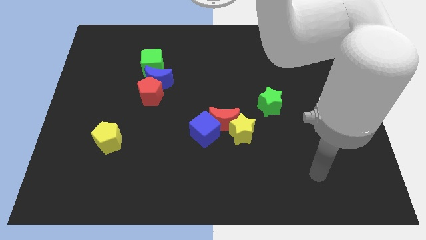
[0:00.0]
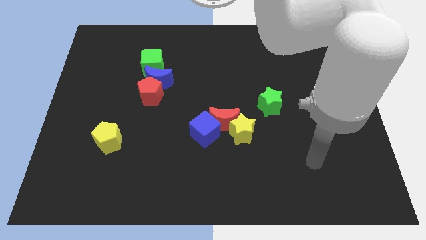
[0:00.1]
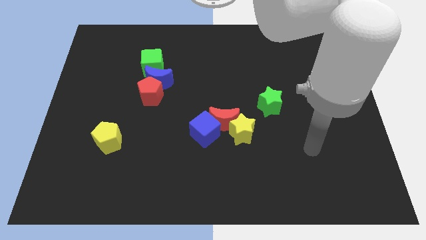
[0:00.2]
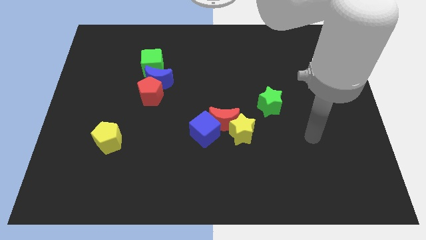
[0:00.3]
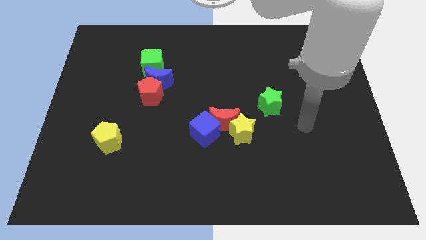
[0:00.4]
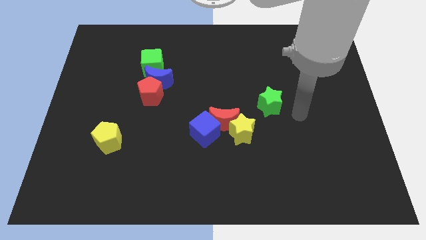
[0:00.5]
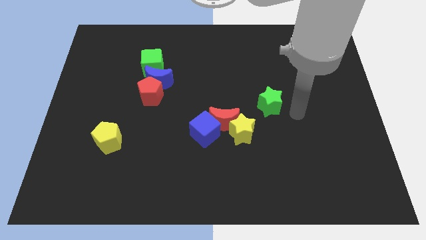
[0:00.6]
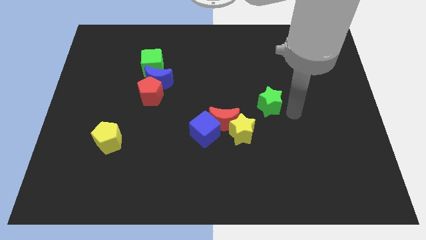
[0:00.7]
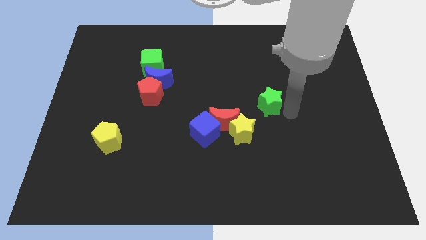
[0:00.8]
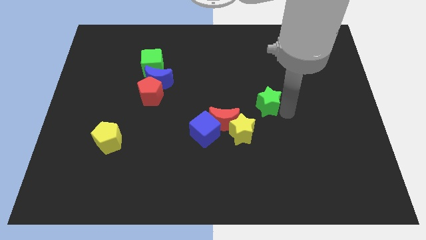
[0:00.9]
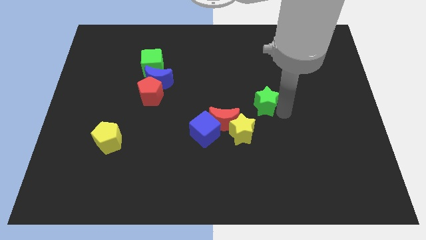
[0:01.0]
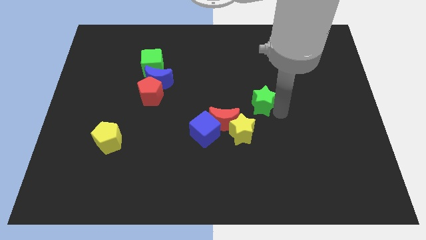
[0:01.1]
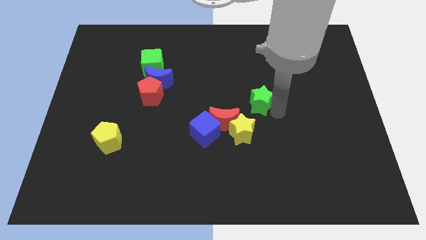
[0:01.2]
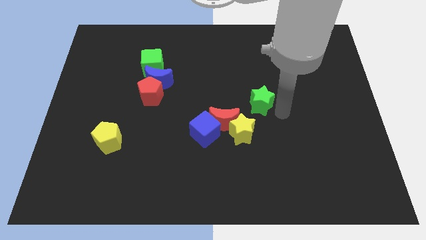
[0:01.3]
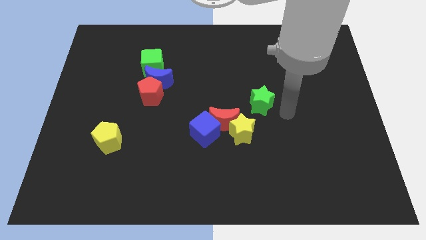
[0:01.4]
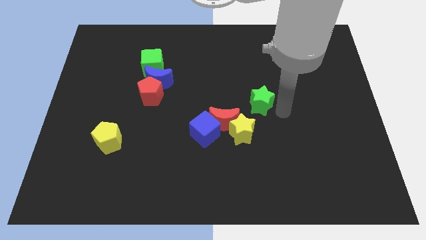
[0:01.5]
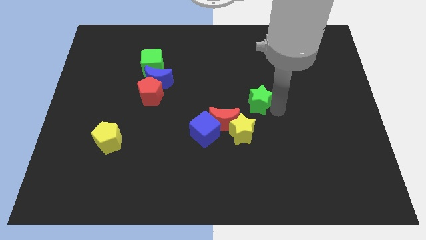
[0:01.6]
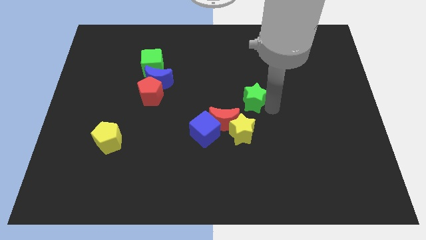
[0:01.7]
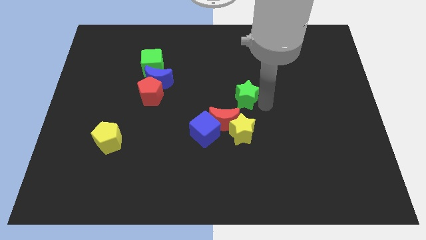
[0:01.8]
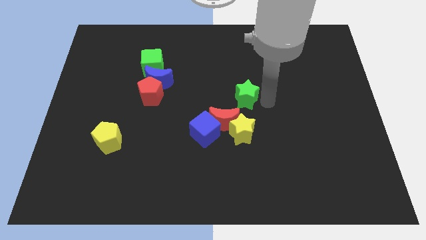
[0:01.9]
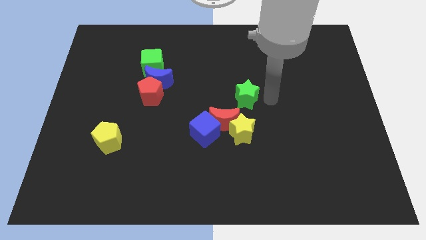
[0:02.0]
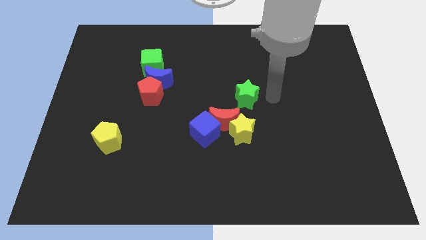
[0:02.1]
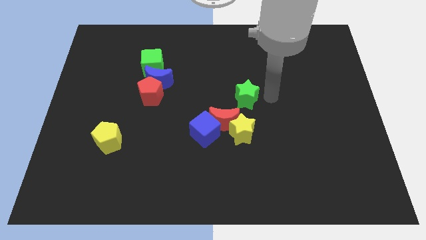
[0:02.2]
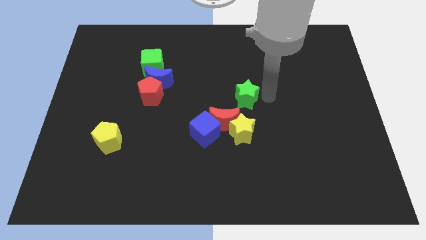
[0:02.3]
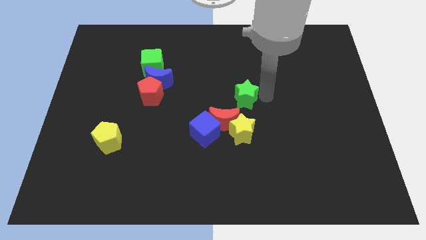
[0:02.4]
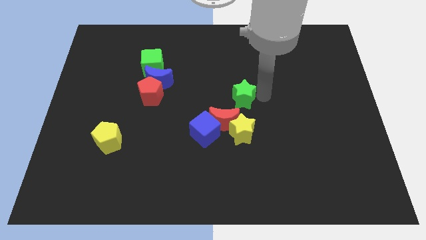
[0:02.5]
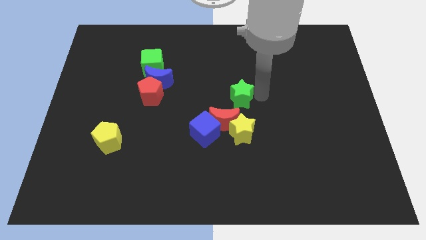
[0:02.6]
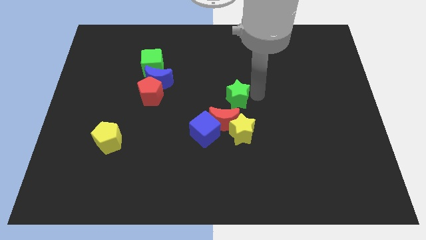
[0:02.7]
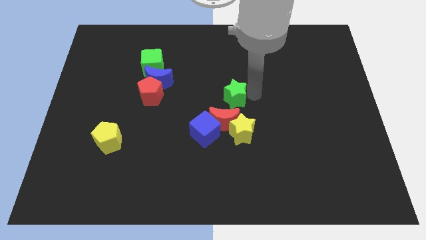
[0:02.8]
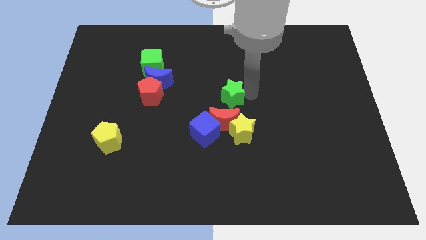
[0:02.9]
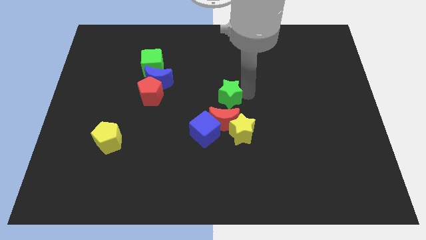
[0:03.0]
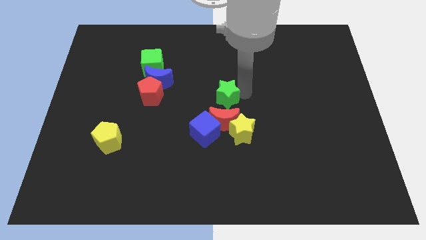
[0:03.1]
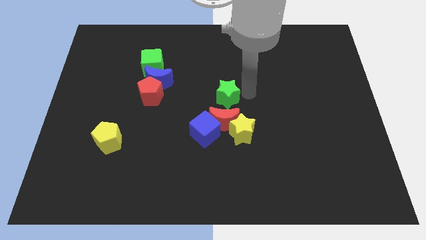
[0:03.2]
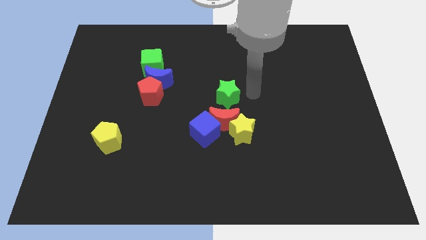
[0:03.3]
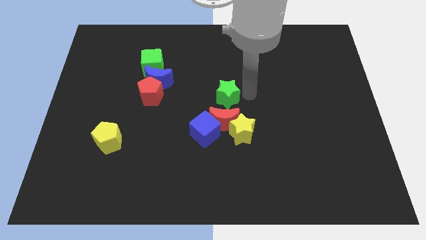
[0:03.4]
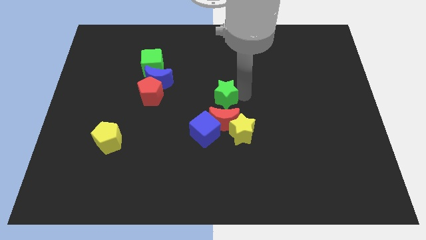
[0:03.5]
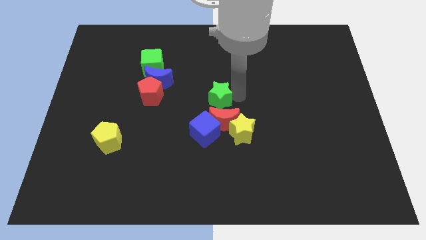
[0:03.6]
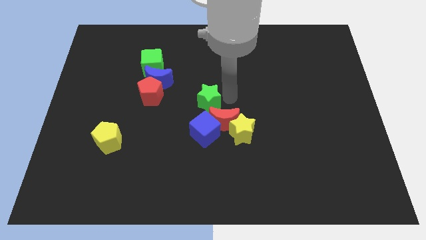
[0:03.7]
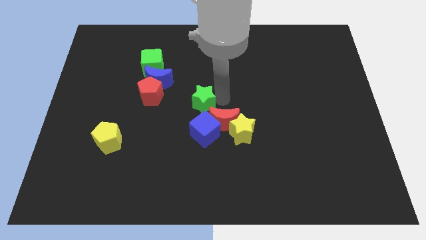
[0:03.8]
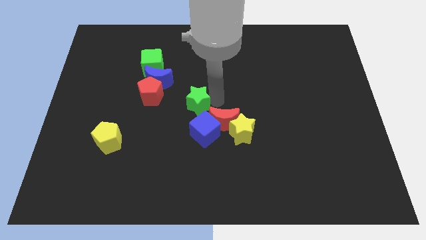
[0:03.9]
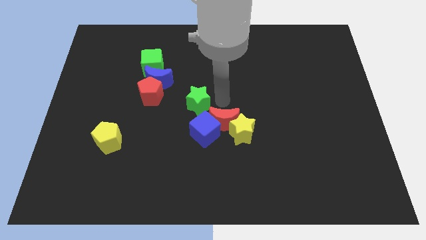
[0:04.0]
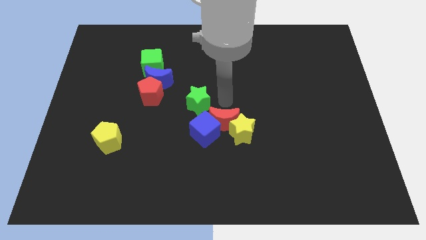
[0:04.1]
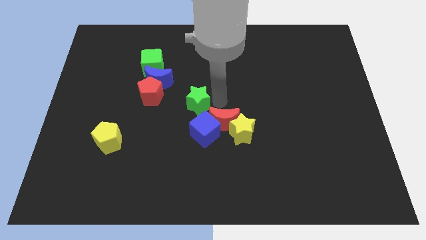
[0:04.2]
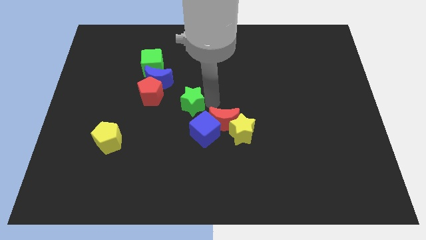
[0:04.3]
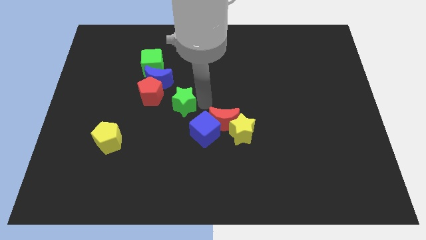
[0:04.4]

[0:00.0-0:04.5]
push the green star to the left

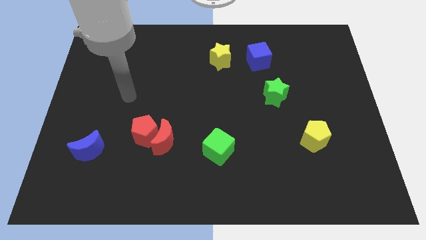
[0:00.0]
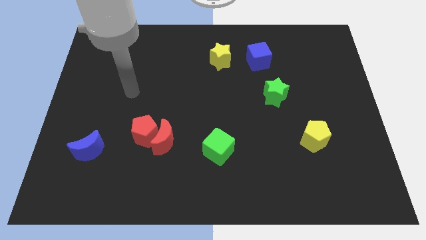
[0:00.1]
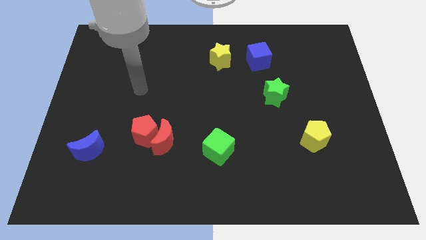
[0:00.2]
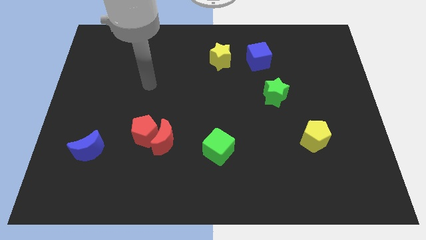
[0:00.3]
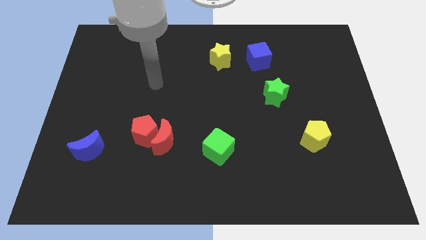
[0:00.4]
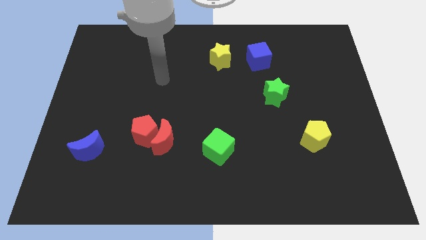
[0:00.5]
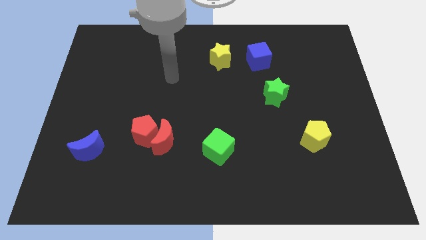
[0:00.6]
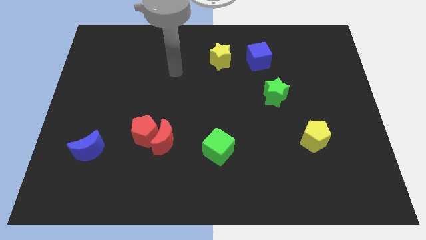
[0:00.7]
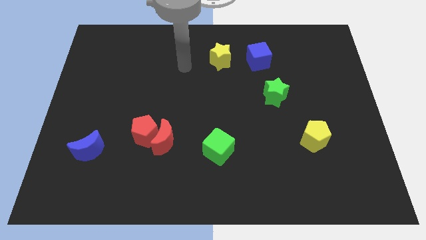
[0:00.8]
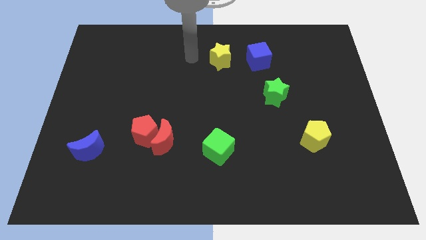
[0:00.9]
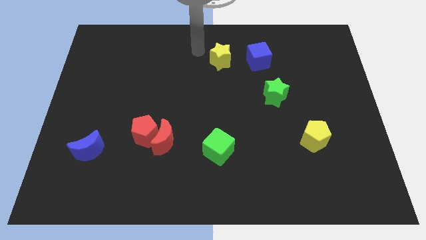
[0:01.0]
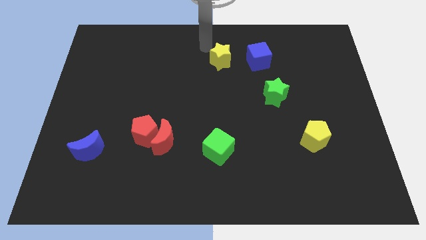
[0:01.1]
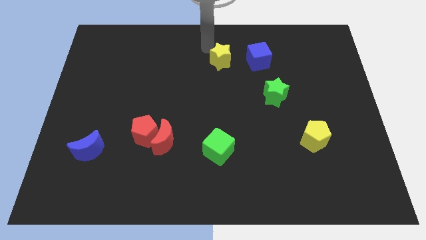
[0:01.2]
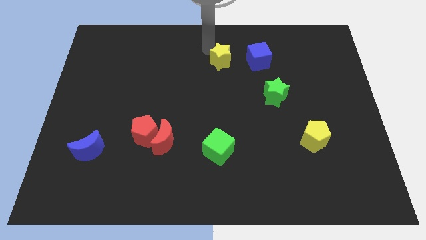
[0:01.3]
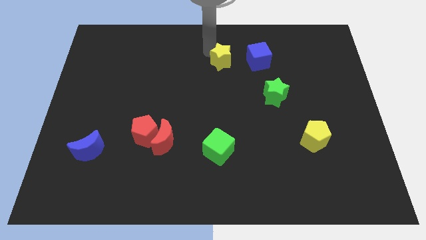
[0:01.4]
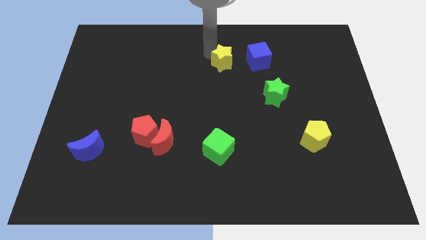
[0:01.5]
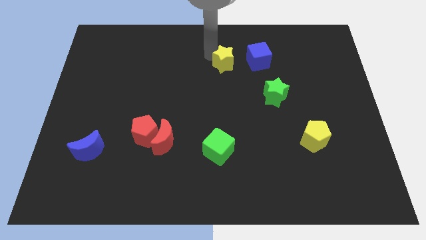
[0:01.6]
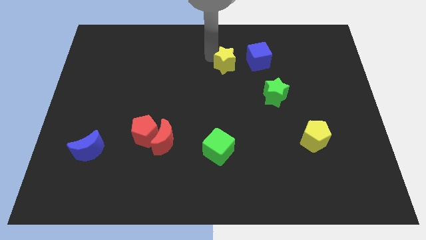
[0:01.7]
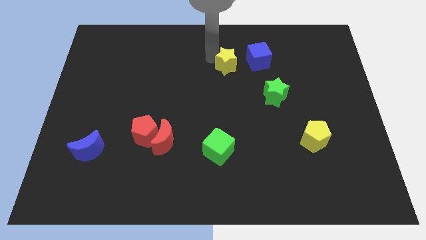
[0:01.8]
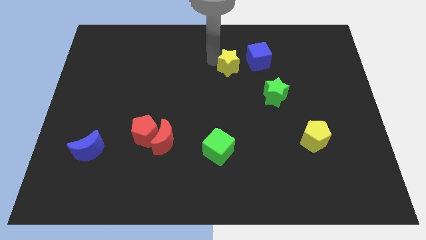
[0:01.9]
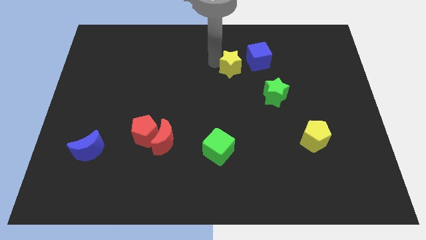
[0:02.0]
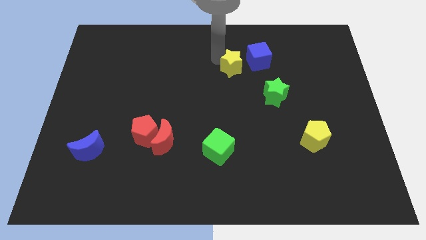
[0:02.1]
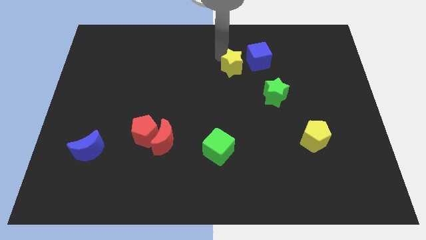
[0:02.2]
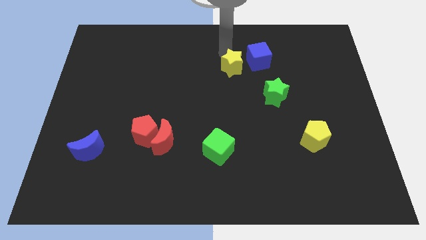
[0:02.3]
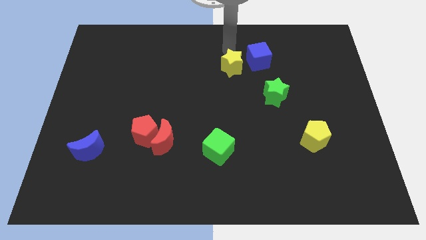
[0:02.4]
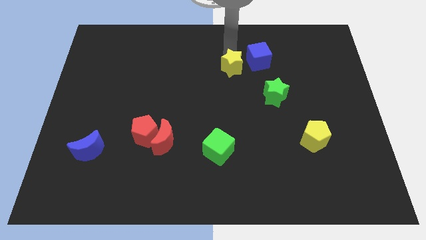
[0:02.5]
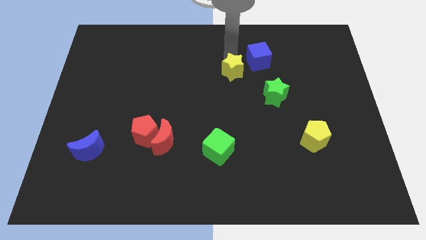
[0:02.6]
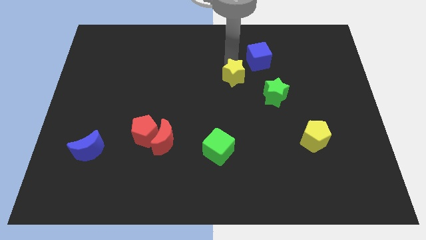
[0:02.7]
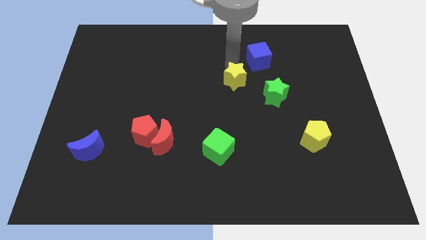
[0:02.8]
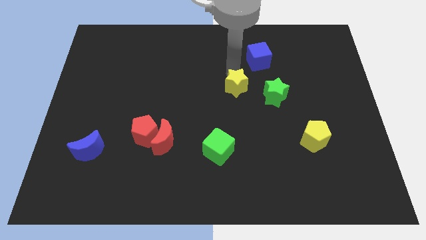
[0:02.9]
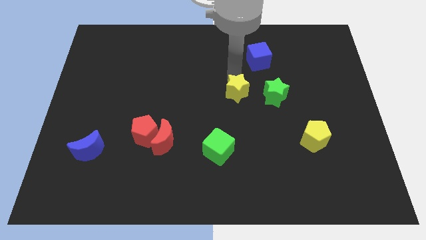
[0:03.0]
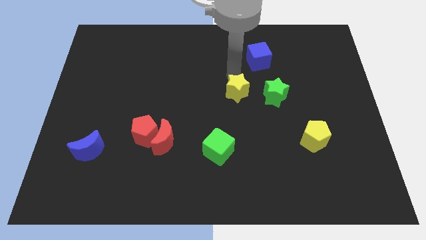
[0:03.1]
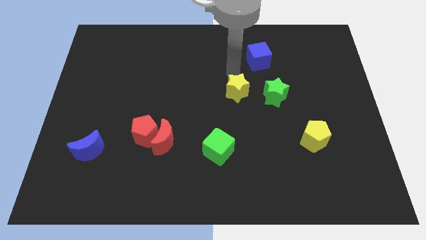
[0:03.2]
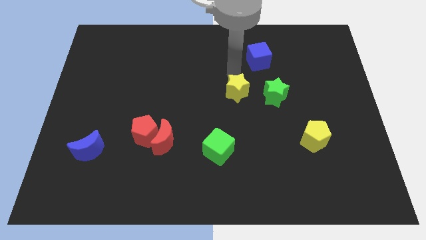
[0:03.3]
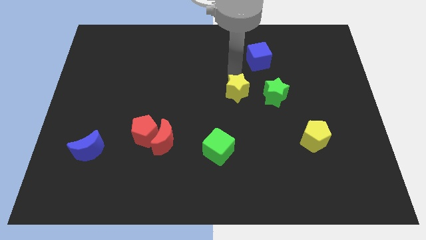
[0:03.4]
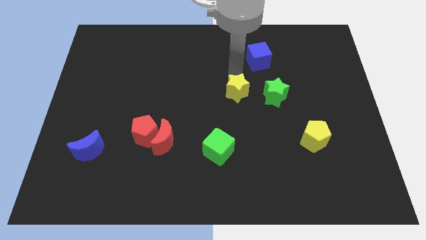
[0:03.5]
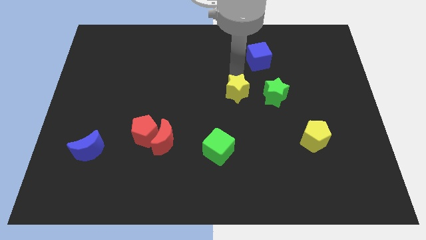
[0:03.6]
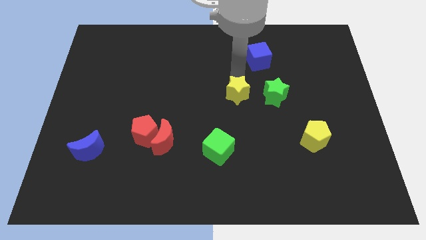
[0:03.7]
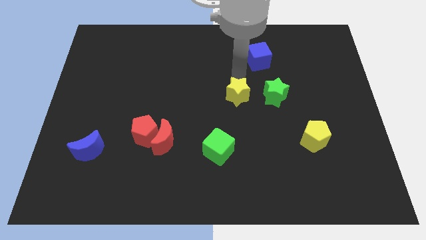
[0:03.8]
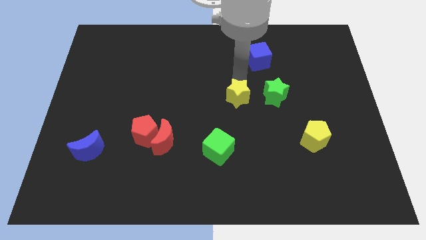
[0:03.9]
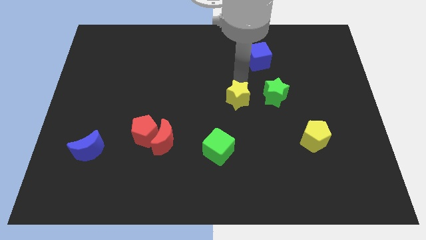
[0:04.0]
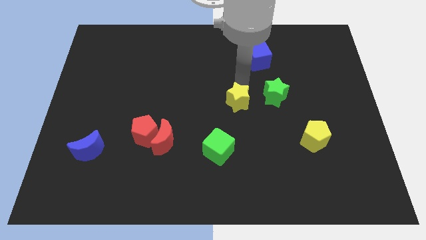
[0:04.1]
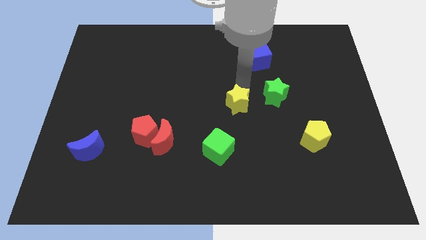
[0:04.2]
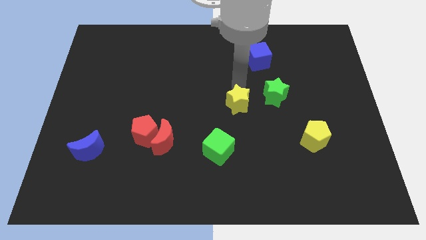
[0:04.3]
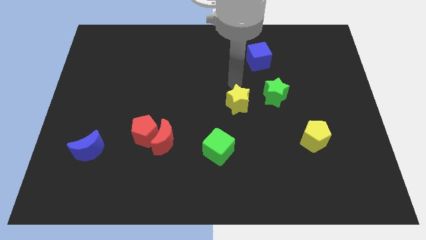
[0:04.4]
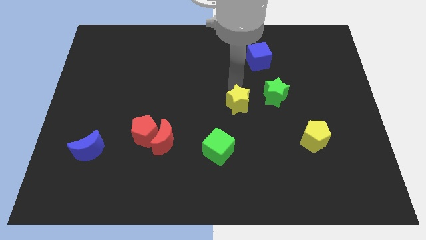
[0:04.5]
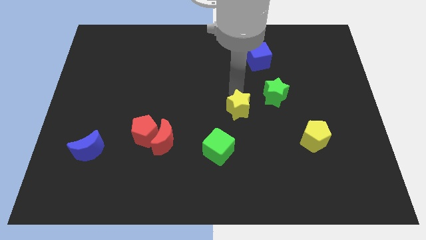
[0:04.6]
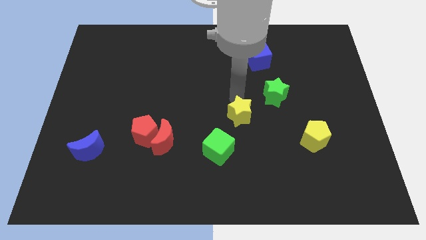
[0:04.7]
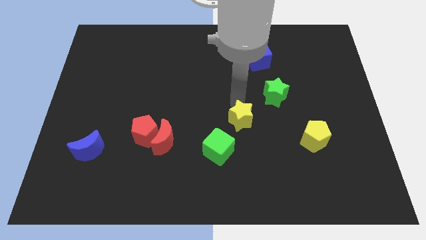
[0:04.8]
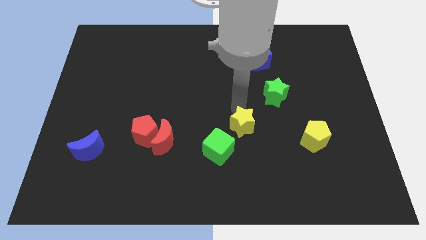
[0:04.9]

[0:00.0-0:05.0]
move the yellow star downwards
